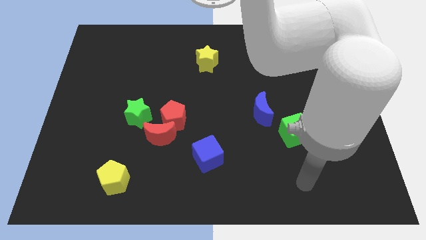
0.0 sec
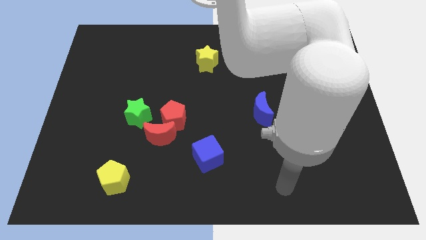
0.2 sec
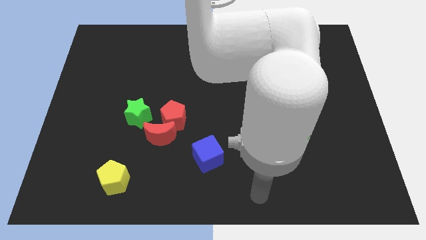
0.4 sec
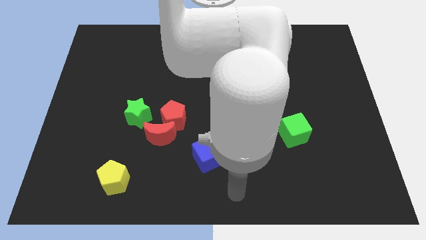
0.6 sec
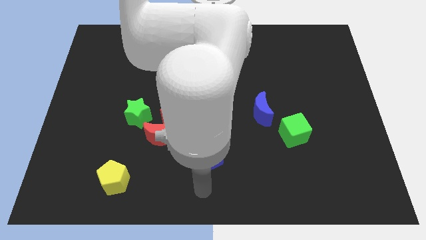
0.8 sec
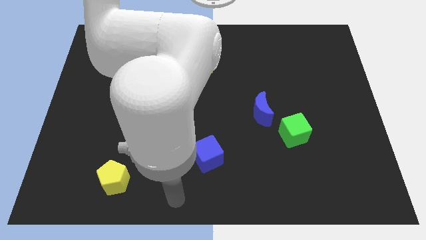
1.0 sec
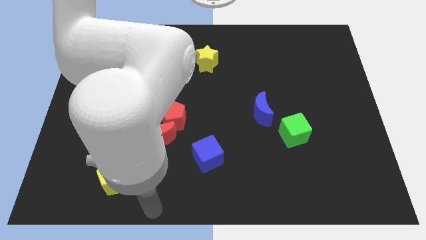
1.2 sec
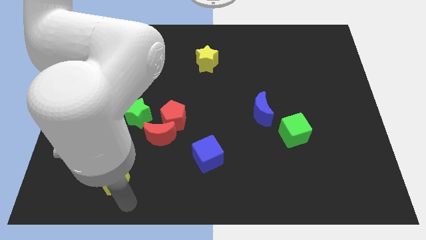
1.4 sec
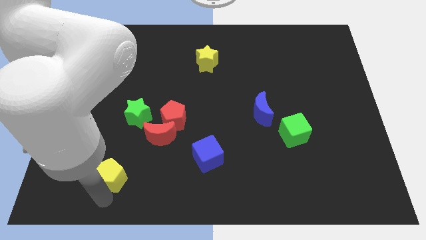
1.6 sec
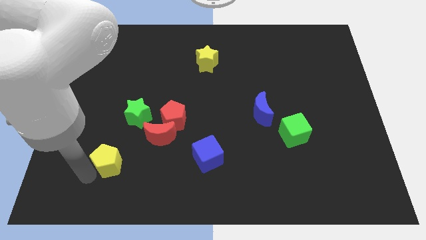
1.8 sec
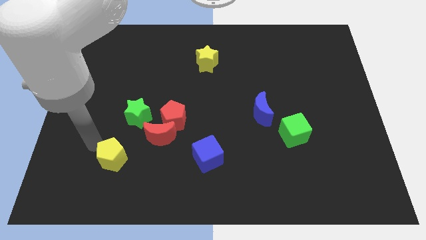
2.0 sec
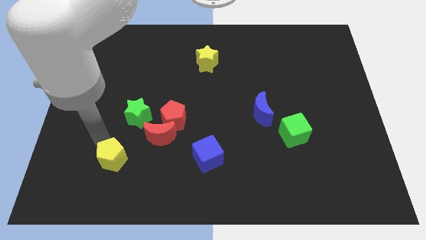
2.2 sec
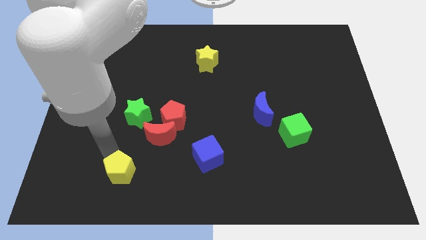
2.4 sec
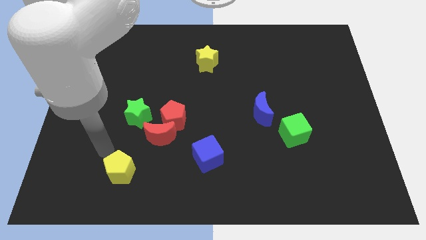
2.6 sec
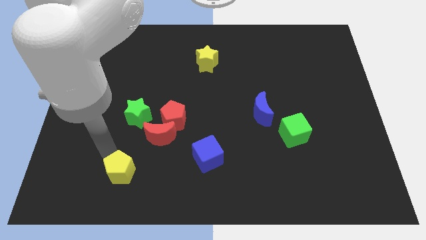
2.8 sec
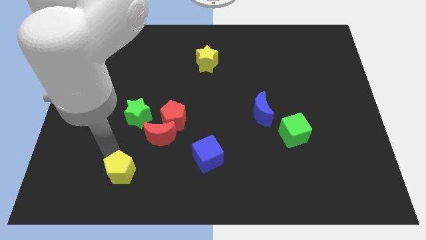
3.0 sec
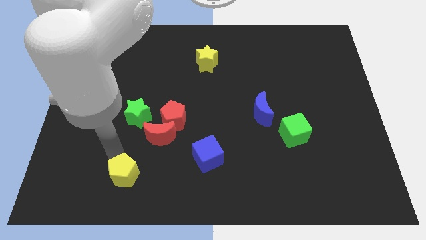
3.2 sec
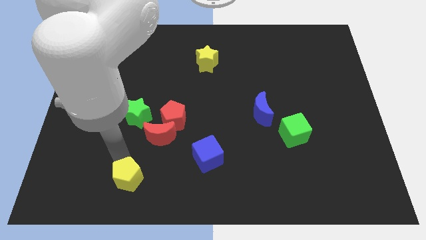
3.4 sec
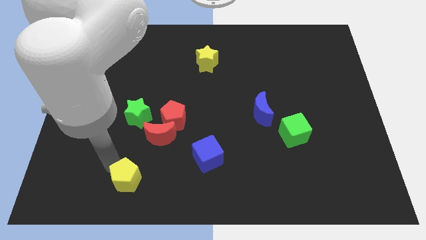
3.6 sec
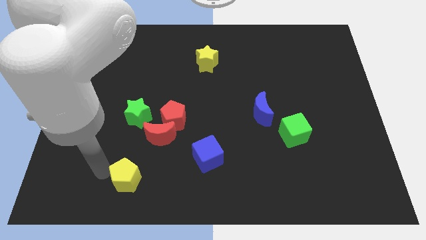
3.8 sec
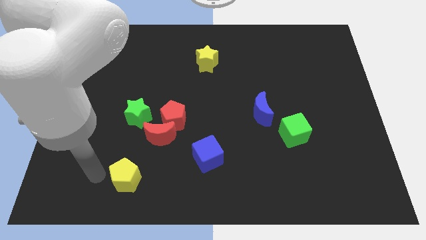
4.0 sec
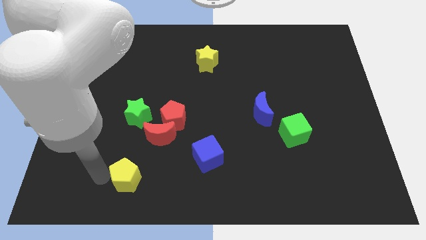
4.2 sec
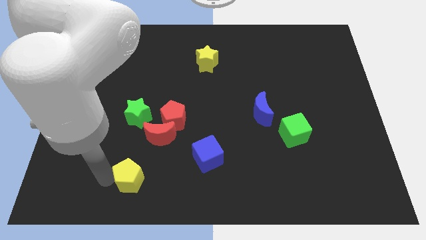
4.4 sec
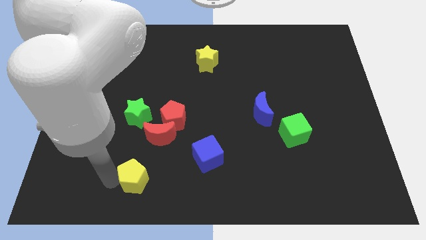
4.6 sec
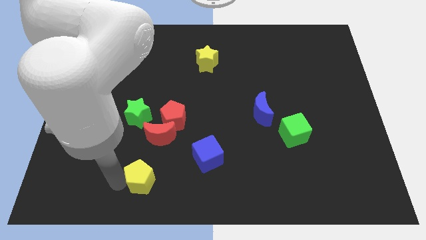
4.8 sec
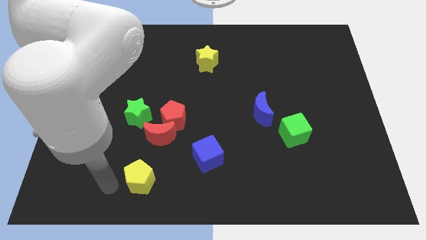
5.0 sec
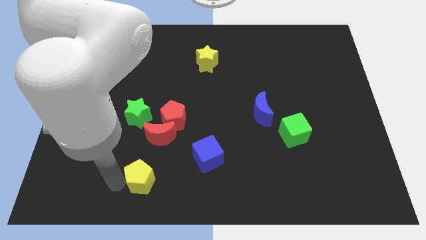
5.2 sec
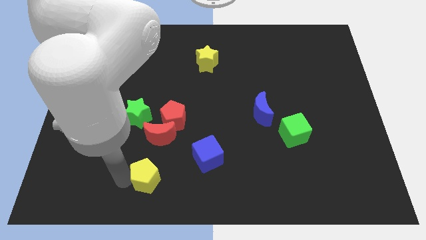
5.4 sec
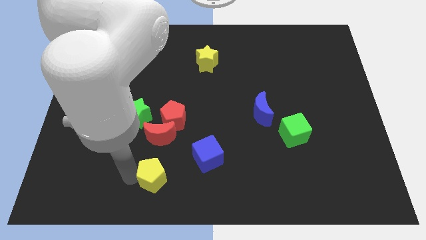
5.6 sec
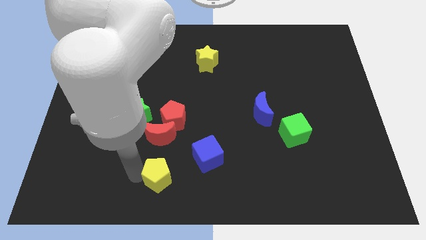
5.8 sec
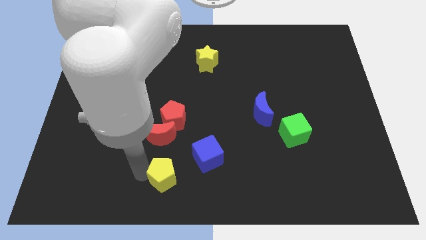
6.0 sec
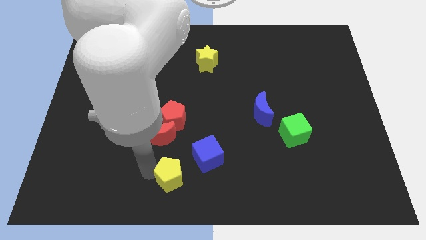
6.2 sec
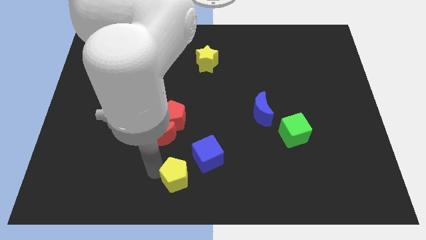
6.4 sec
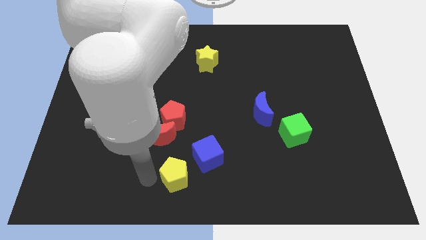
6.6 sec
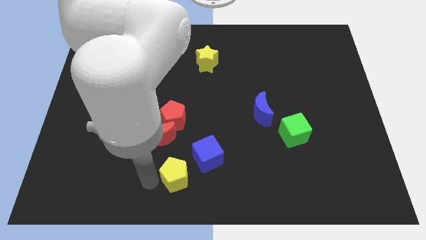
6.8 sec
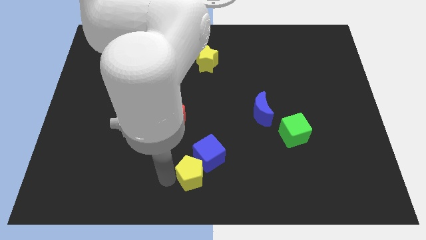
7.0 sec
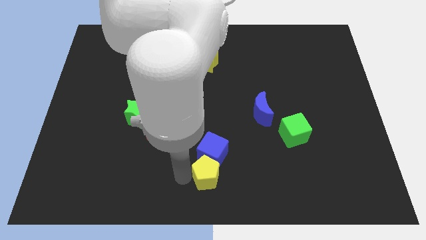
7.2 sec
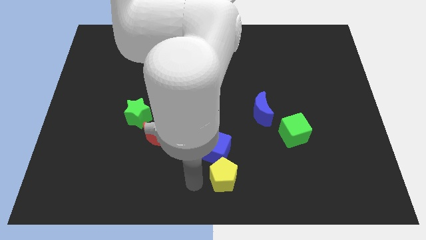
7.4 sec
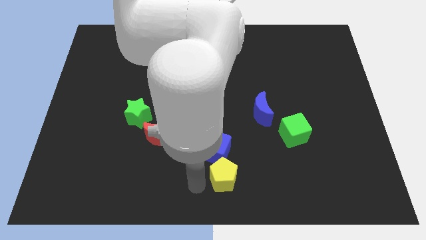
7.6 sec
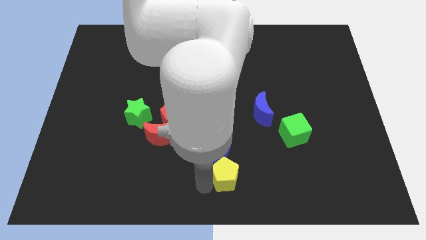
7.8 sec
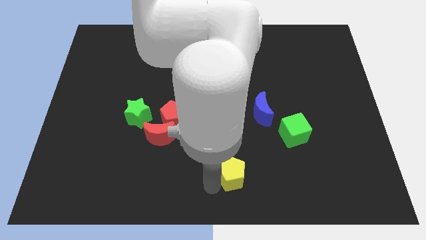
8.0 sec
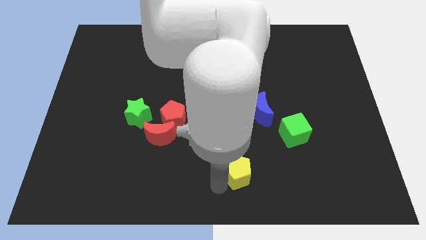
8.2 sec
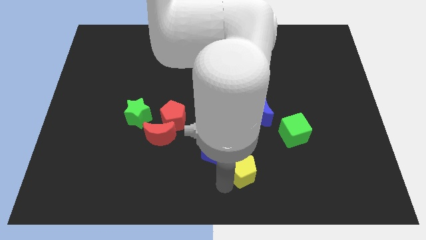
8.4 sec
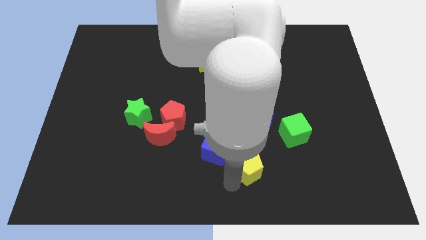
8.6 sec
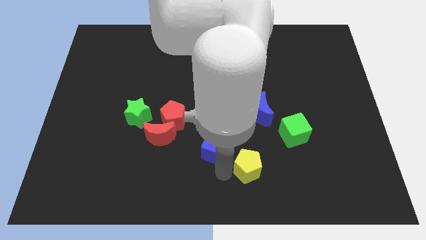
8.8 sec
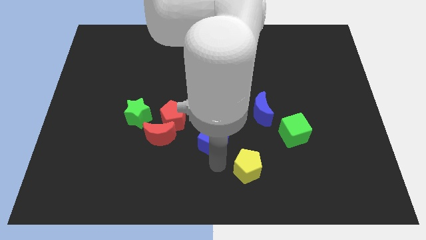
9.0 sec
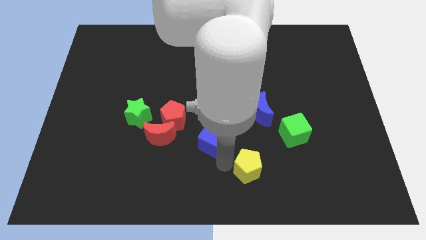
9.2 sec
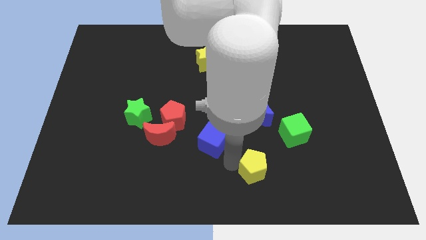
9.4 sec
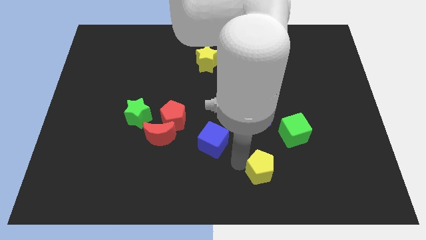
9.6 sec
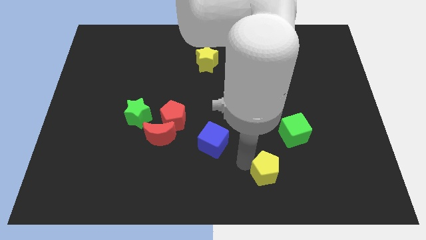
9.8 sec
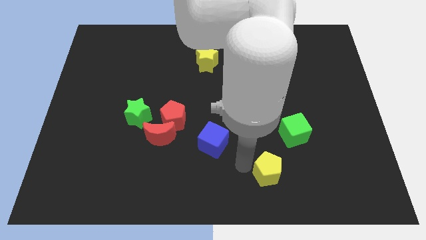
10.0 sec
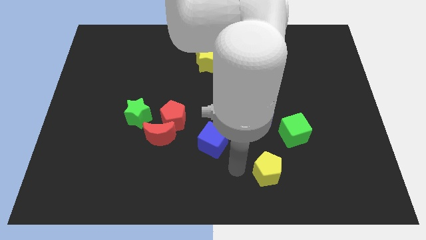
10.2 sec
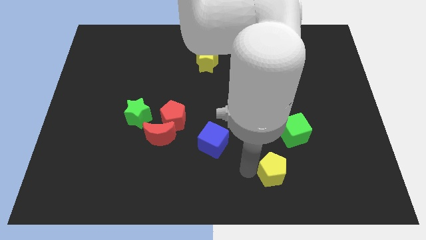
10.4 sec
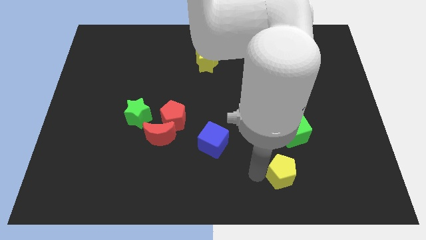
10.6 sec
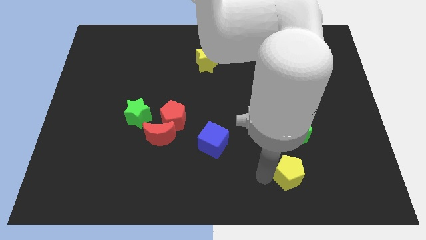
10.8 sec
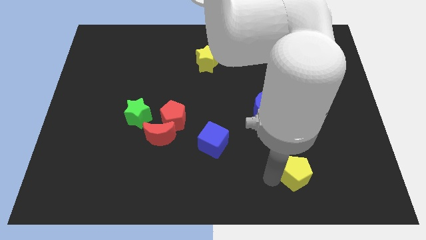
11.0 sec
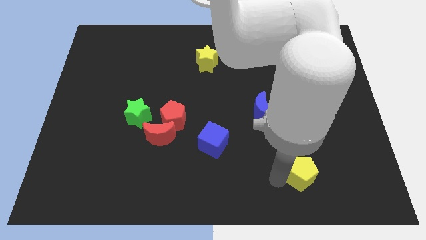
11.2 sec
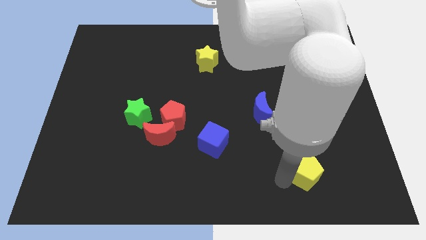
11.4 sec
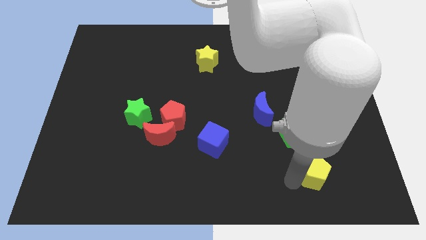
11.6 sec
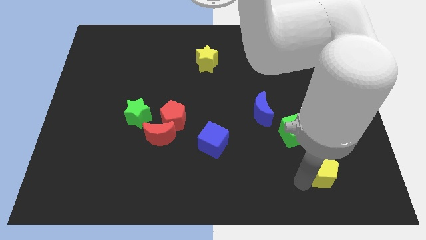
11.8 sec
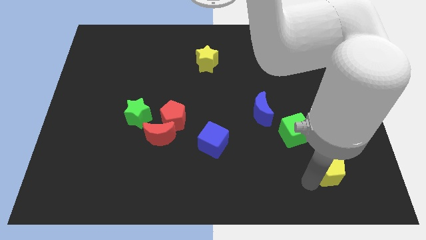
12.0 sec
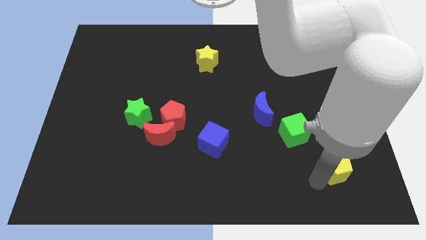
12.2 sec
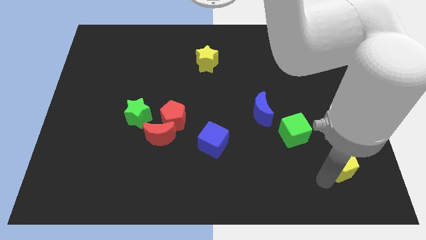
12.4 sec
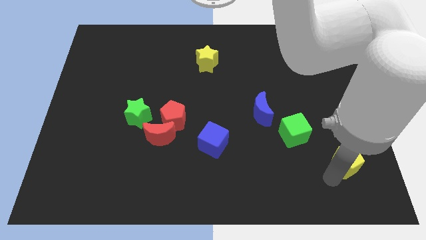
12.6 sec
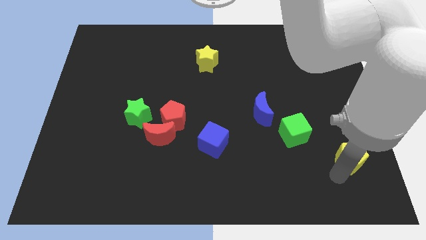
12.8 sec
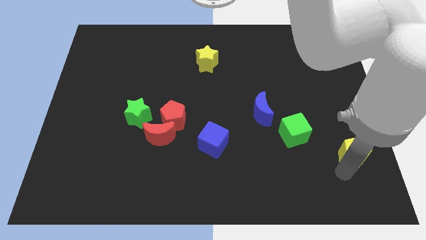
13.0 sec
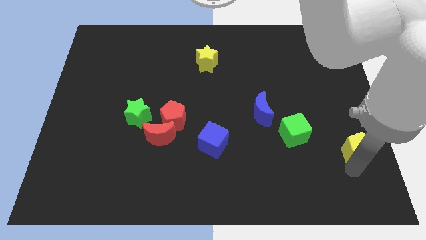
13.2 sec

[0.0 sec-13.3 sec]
push the yellow pentagon to the right side of the green cube

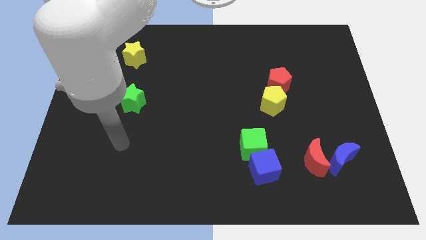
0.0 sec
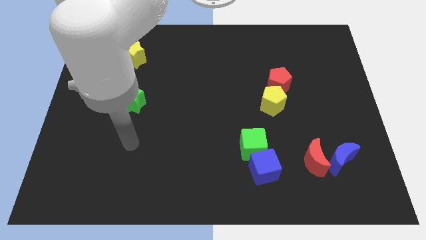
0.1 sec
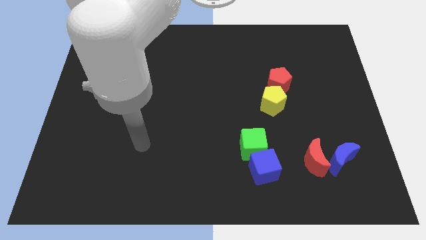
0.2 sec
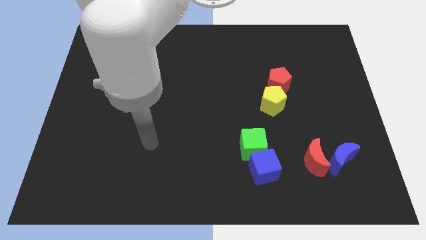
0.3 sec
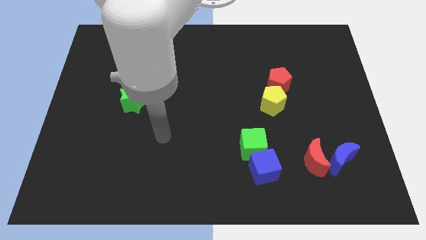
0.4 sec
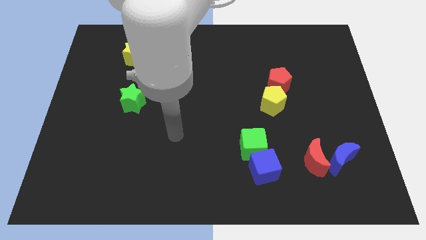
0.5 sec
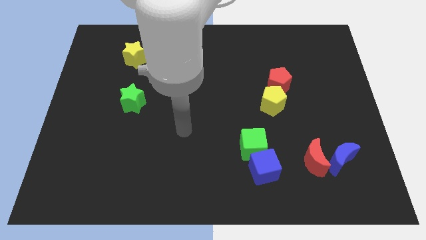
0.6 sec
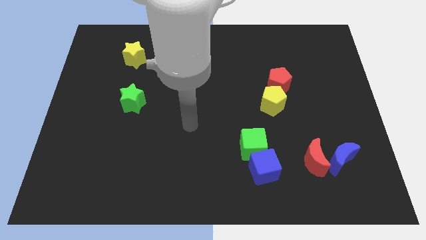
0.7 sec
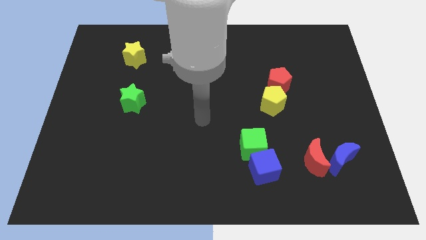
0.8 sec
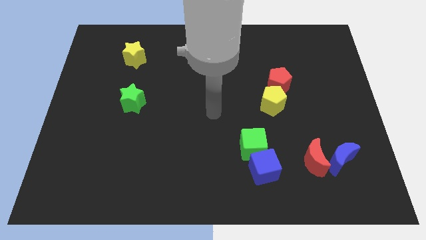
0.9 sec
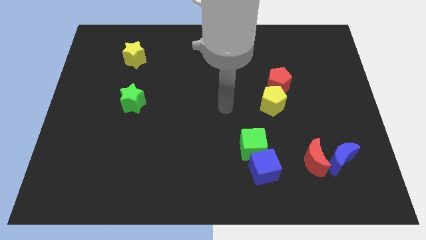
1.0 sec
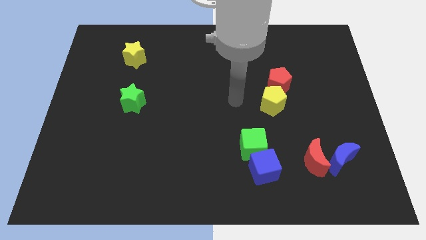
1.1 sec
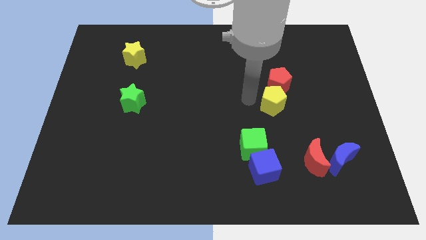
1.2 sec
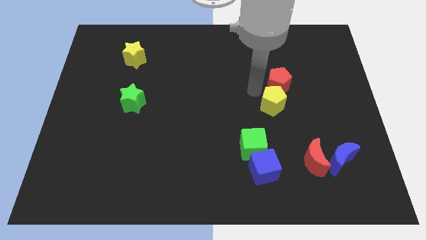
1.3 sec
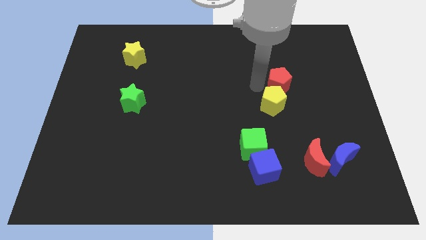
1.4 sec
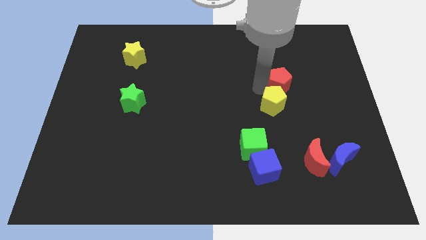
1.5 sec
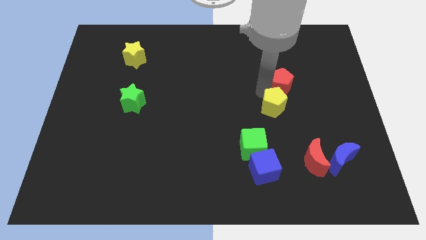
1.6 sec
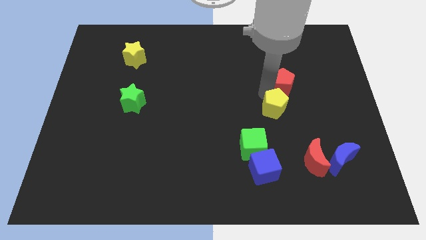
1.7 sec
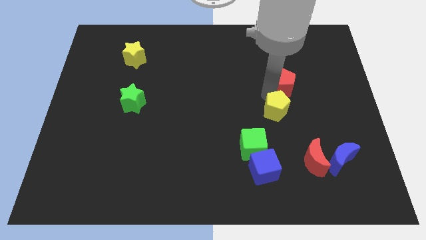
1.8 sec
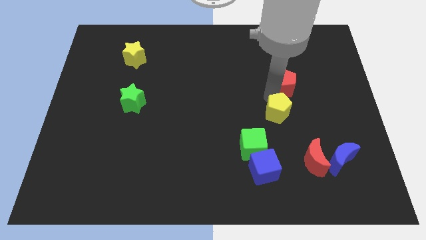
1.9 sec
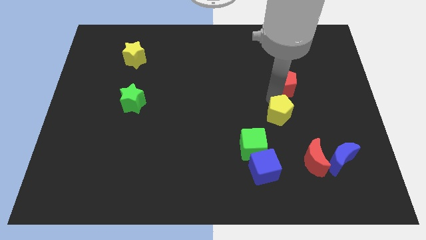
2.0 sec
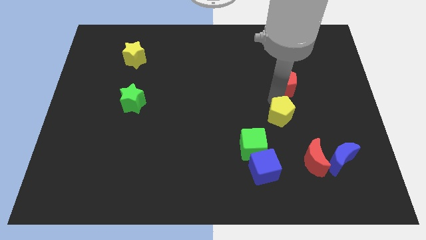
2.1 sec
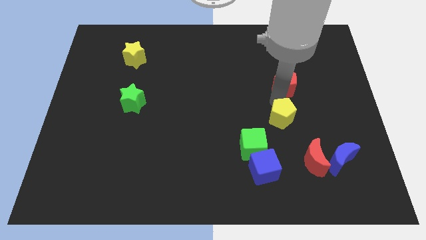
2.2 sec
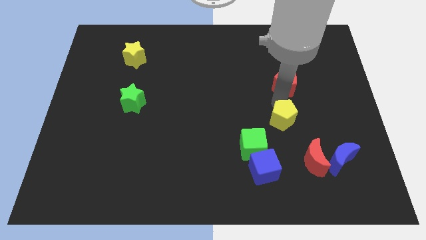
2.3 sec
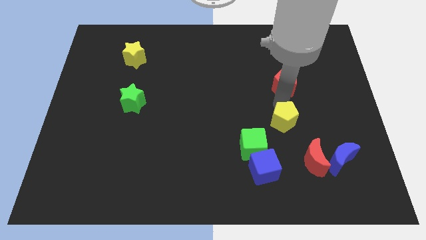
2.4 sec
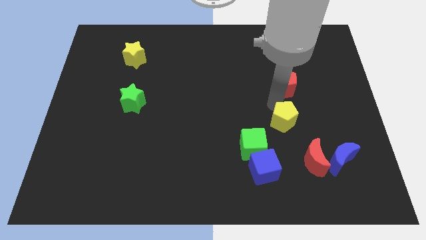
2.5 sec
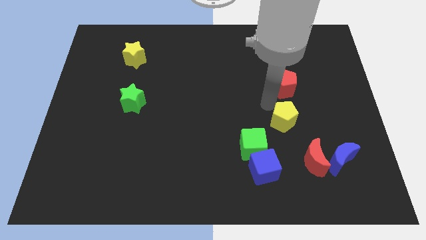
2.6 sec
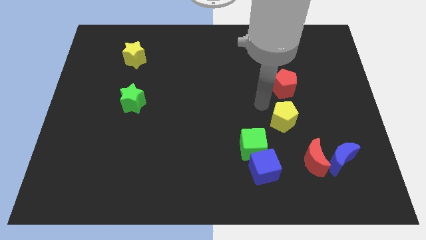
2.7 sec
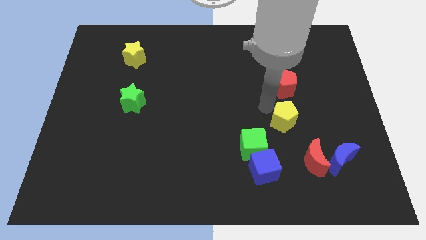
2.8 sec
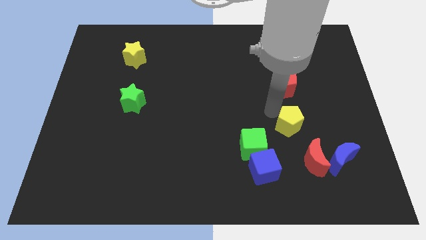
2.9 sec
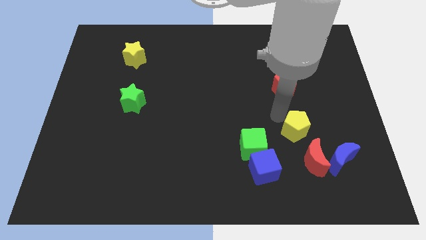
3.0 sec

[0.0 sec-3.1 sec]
put the yellow pentagon to the top left of the blue moon
